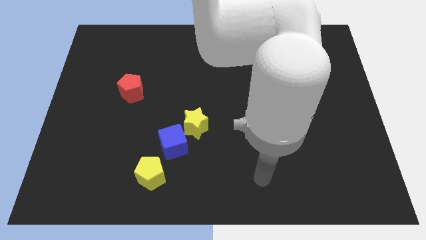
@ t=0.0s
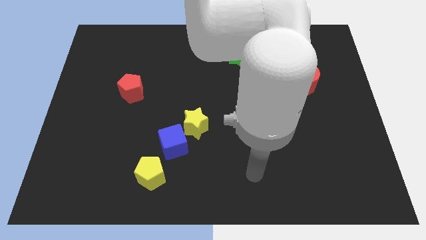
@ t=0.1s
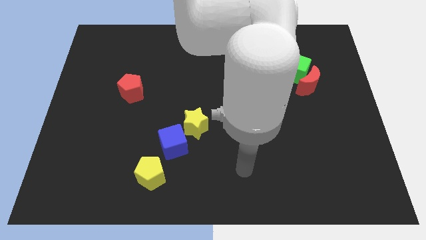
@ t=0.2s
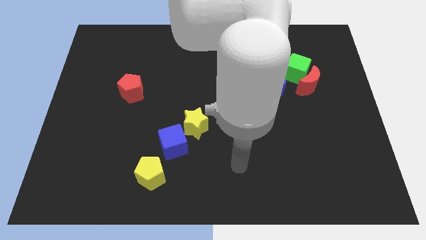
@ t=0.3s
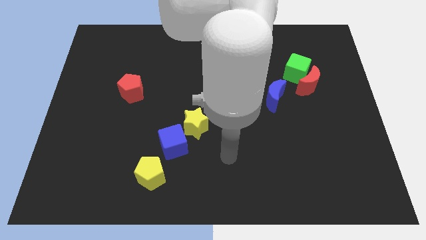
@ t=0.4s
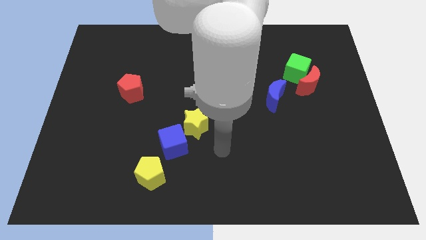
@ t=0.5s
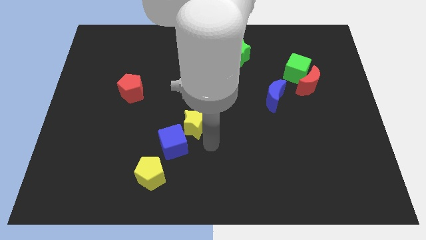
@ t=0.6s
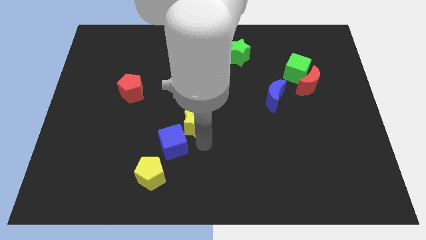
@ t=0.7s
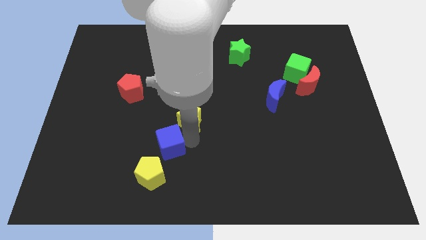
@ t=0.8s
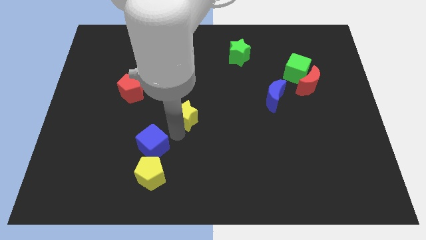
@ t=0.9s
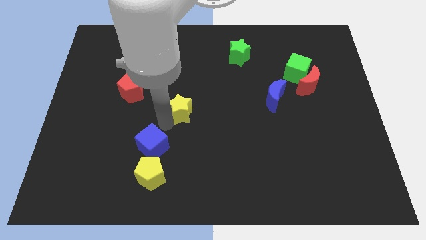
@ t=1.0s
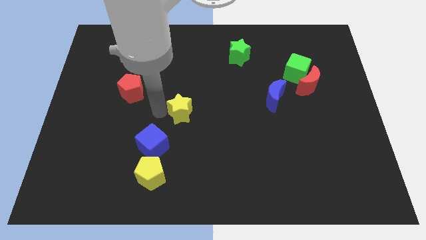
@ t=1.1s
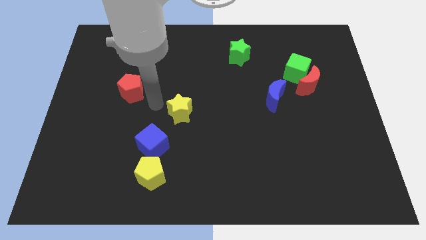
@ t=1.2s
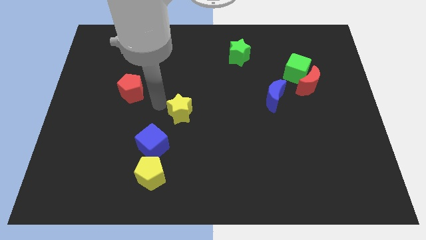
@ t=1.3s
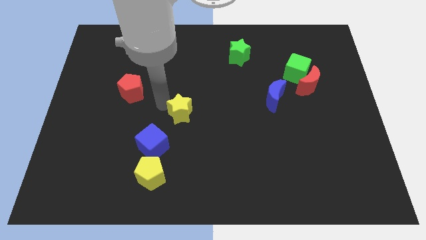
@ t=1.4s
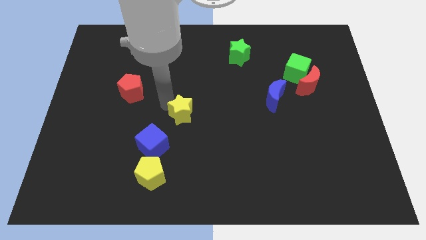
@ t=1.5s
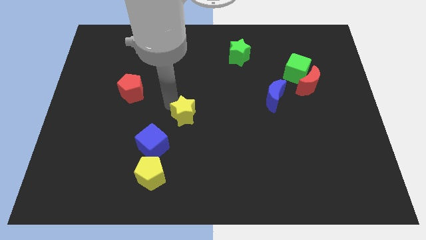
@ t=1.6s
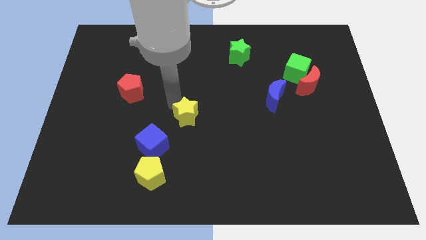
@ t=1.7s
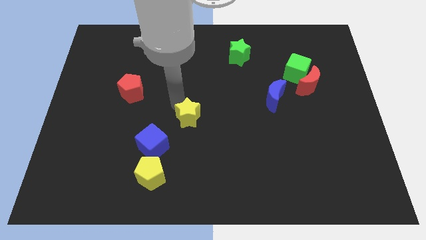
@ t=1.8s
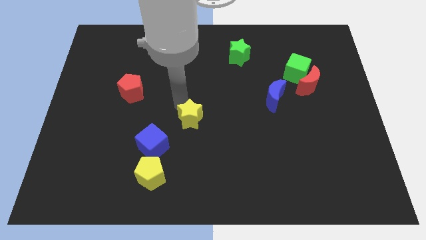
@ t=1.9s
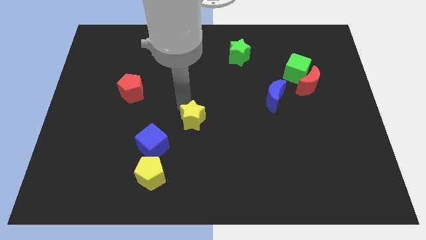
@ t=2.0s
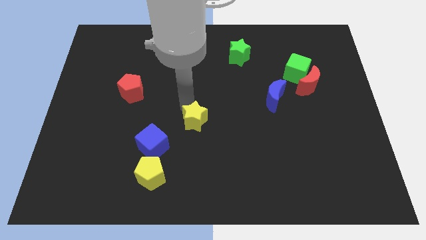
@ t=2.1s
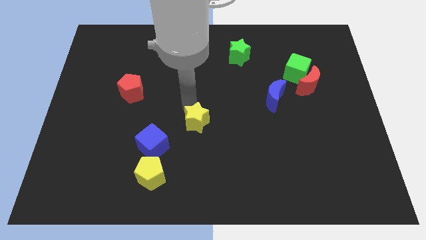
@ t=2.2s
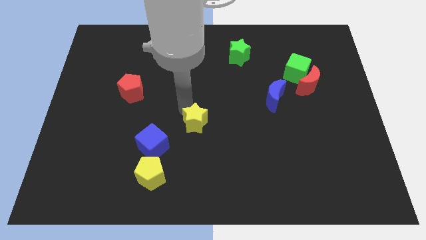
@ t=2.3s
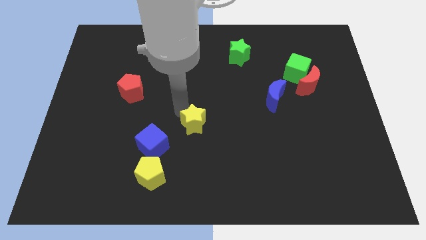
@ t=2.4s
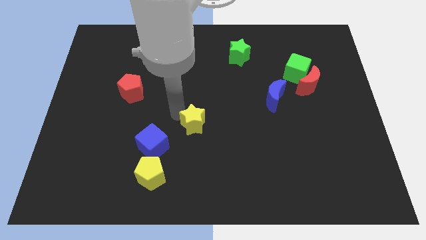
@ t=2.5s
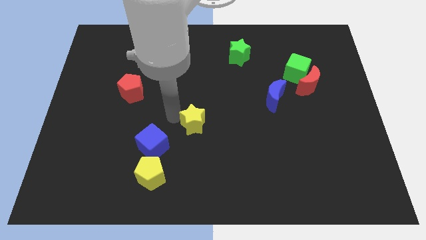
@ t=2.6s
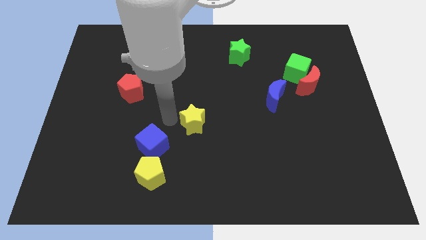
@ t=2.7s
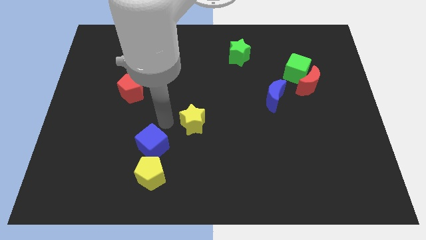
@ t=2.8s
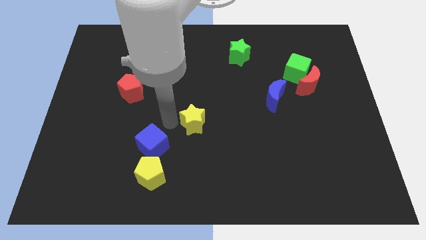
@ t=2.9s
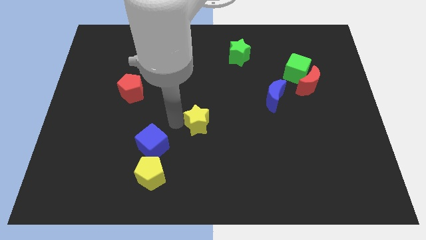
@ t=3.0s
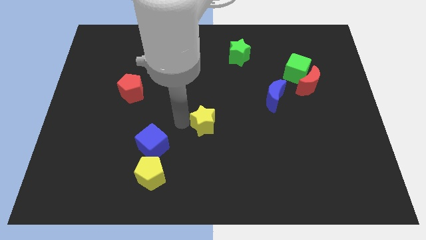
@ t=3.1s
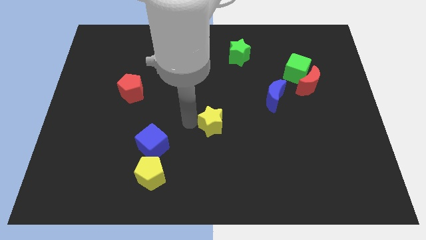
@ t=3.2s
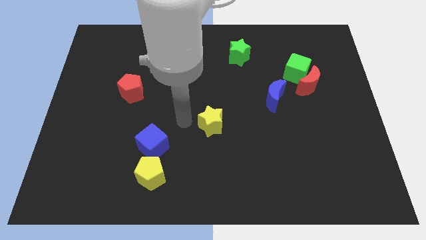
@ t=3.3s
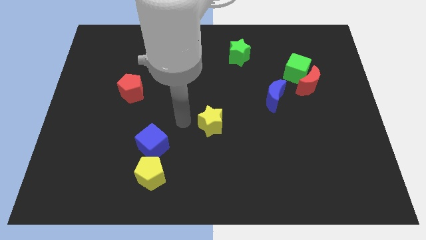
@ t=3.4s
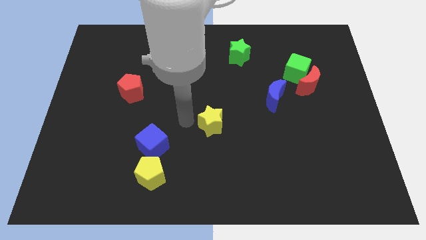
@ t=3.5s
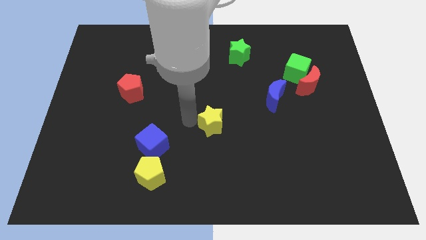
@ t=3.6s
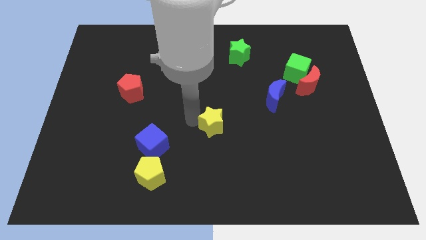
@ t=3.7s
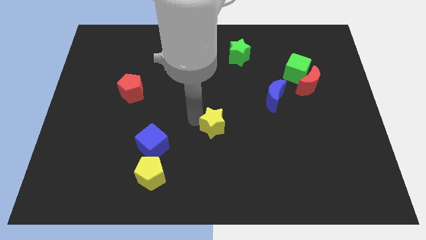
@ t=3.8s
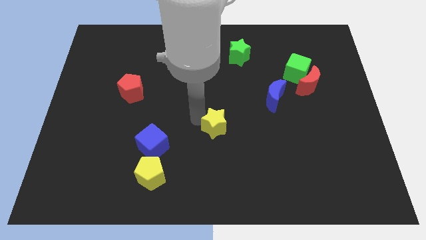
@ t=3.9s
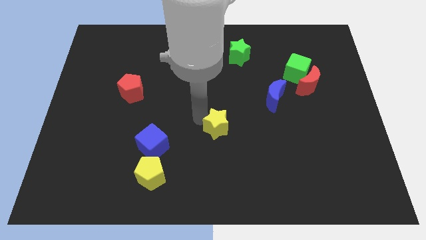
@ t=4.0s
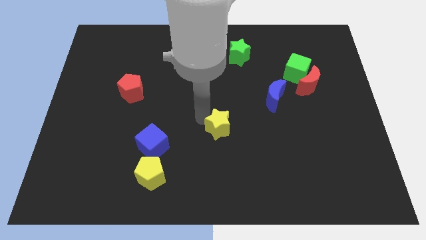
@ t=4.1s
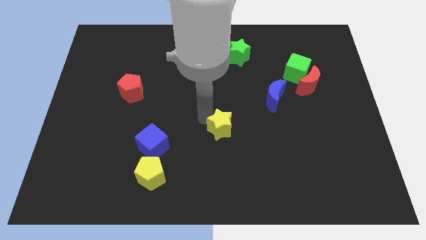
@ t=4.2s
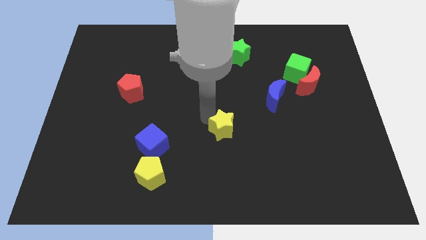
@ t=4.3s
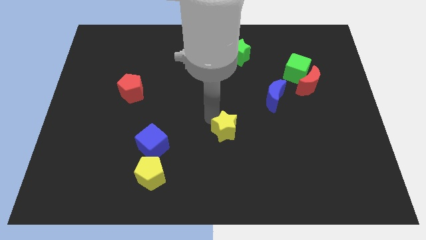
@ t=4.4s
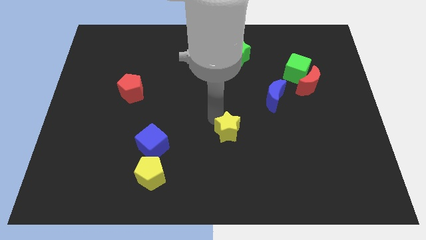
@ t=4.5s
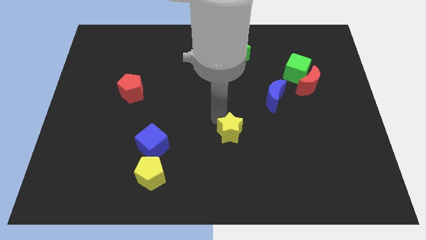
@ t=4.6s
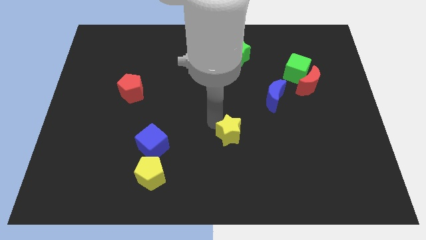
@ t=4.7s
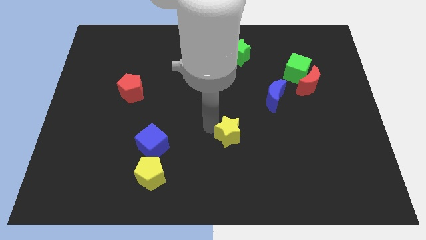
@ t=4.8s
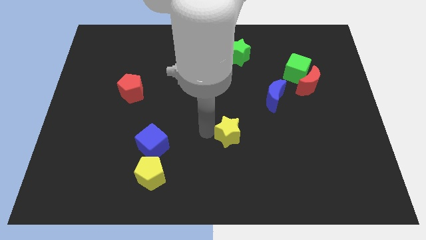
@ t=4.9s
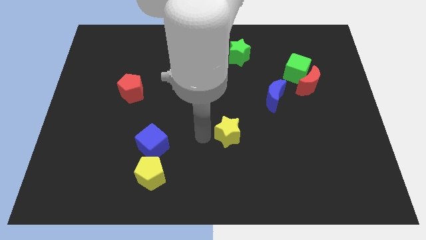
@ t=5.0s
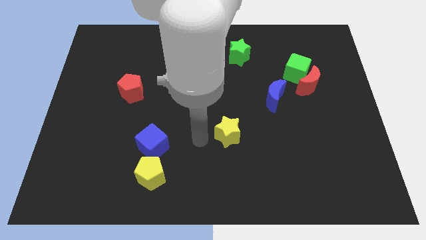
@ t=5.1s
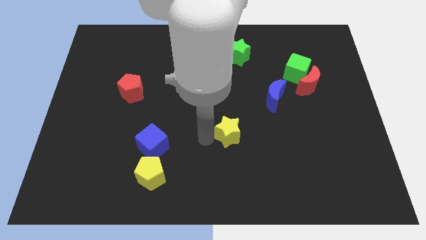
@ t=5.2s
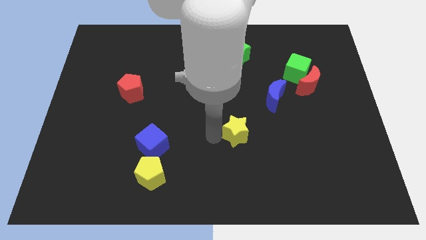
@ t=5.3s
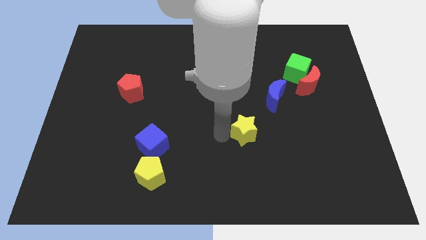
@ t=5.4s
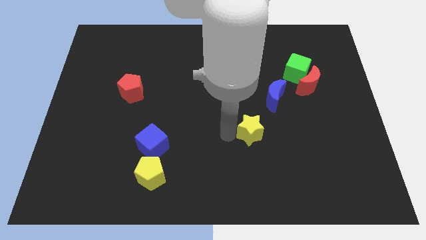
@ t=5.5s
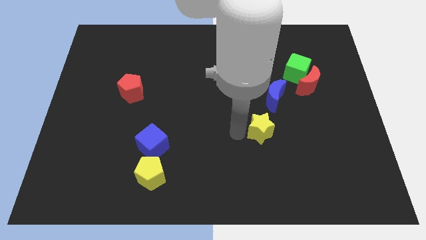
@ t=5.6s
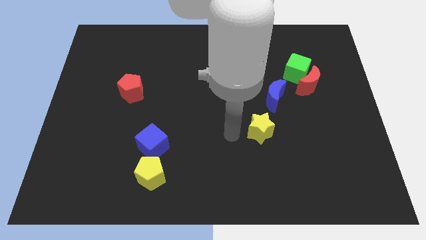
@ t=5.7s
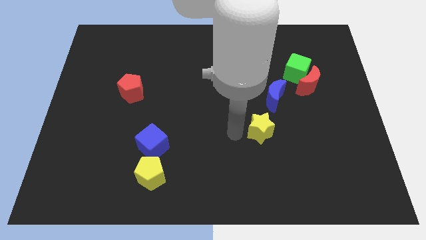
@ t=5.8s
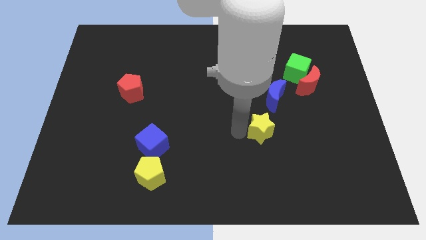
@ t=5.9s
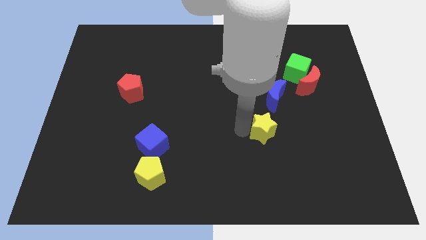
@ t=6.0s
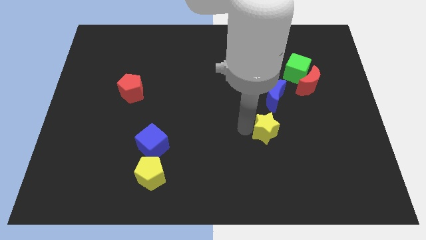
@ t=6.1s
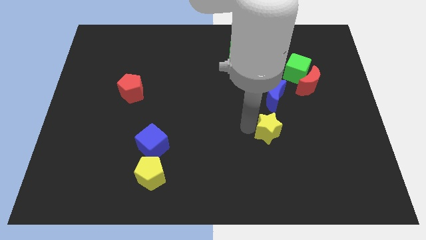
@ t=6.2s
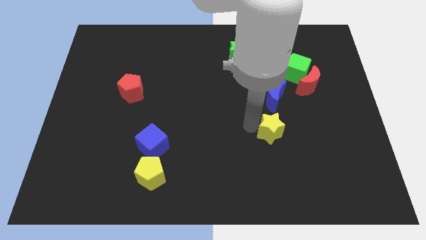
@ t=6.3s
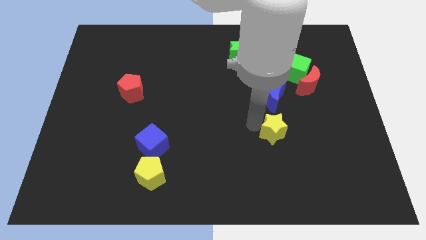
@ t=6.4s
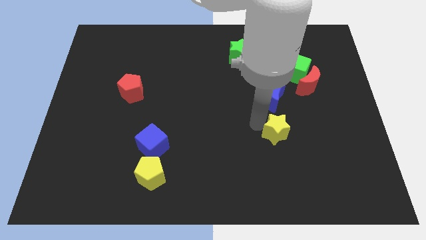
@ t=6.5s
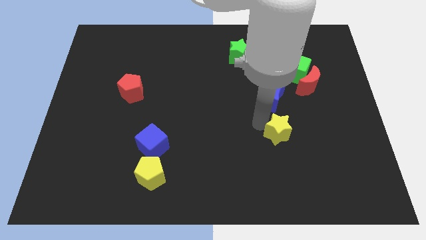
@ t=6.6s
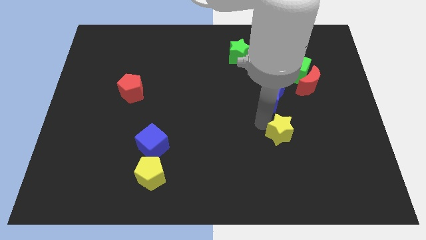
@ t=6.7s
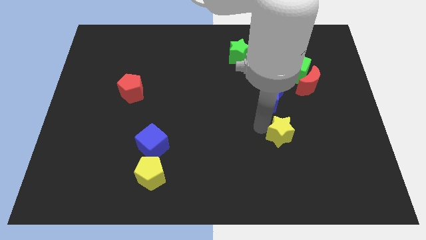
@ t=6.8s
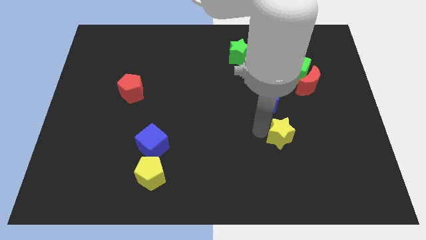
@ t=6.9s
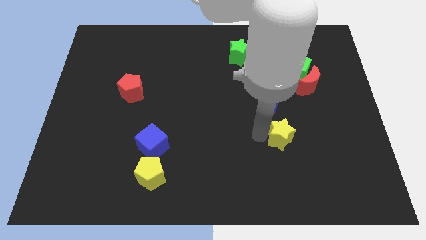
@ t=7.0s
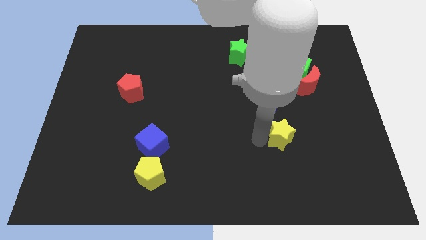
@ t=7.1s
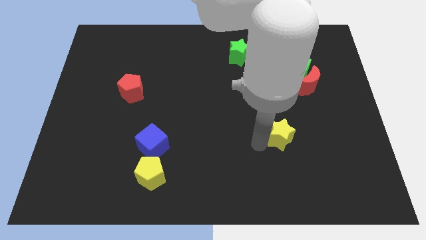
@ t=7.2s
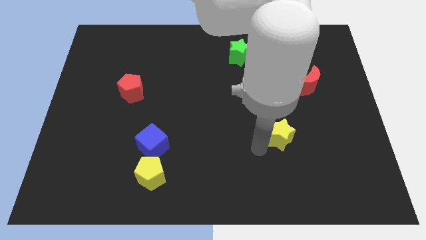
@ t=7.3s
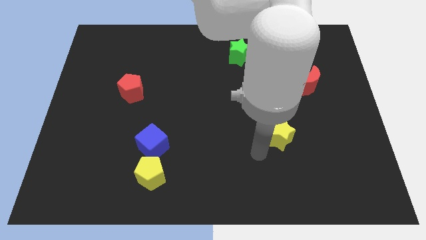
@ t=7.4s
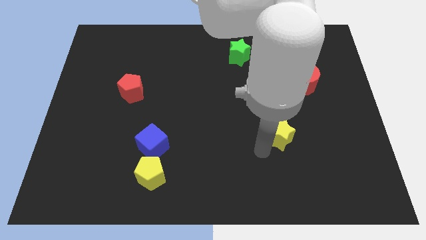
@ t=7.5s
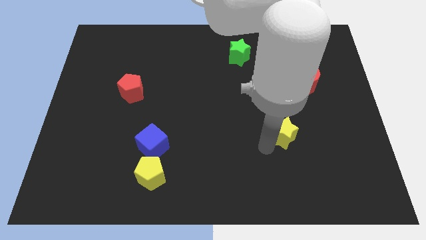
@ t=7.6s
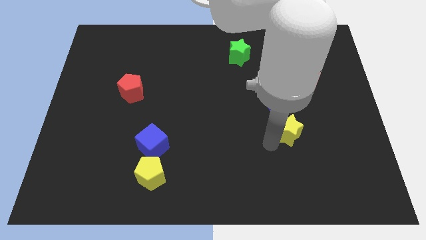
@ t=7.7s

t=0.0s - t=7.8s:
slide the yellow star to the right

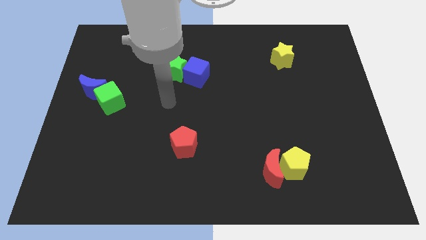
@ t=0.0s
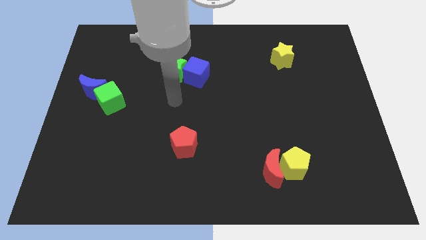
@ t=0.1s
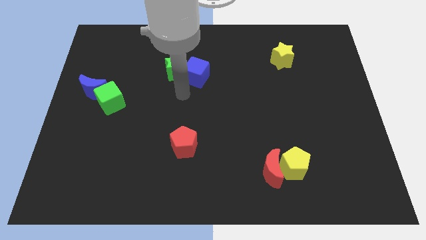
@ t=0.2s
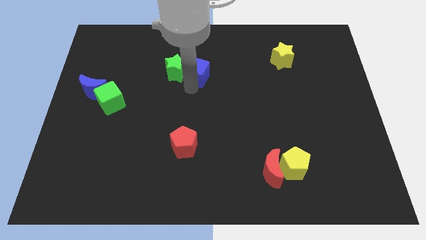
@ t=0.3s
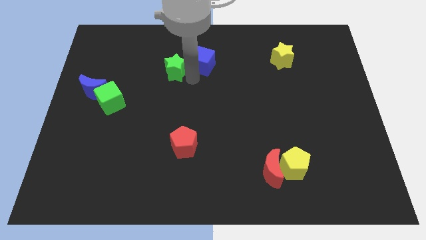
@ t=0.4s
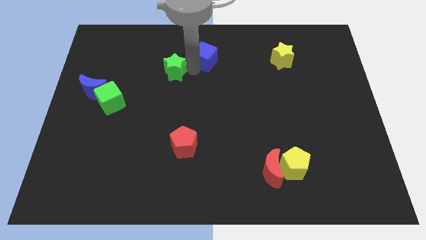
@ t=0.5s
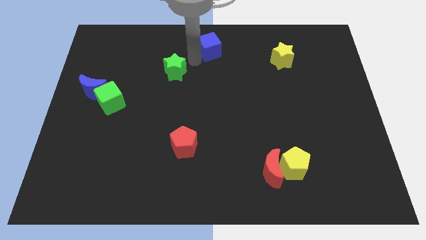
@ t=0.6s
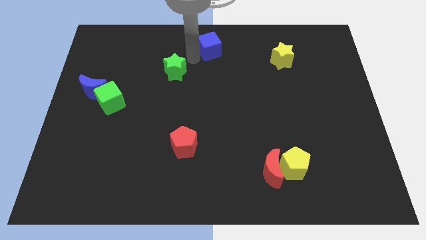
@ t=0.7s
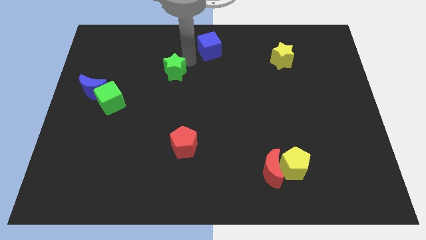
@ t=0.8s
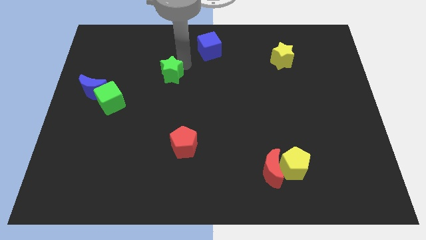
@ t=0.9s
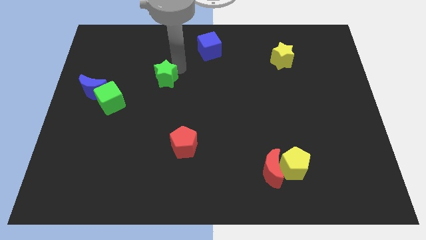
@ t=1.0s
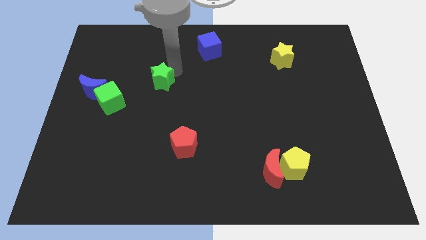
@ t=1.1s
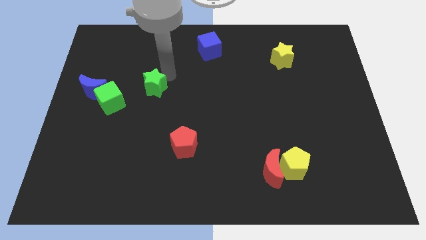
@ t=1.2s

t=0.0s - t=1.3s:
move the green star slightly down and left diagonally
